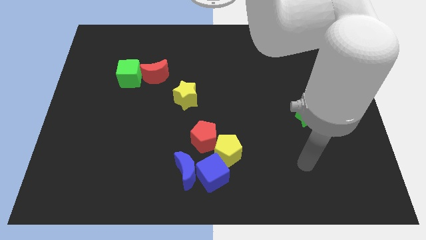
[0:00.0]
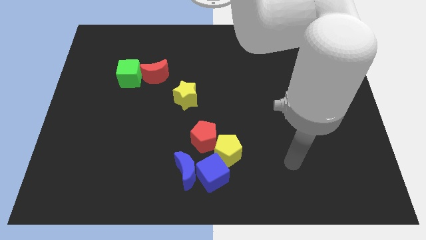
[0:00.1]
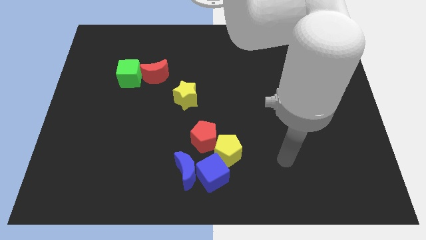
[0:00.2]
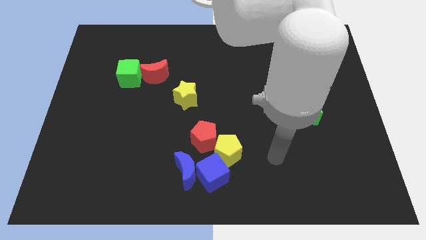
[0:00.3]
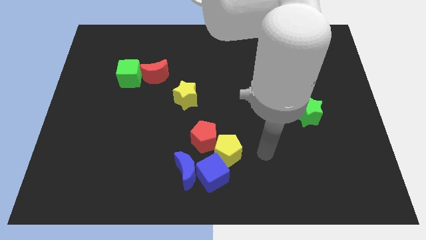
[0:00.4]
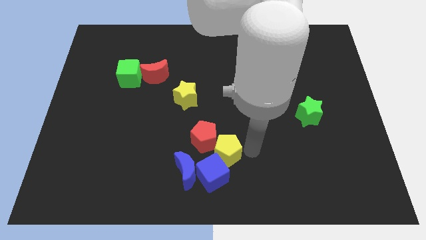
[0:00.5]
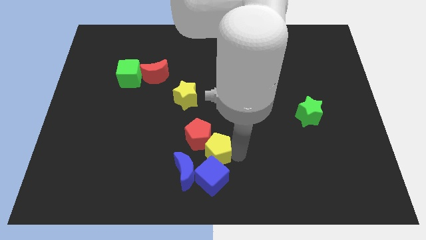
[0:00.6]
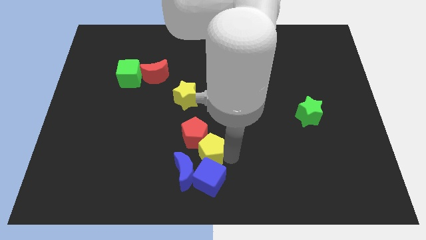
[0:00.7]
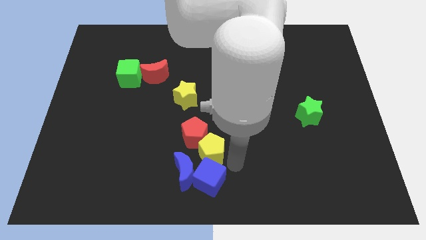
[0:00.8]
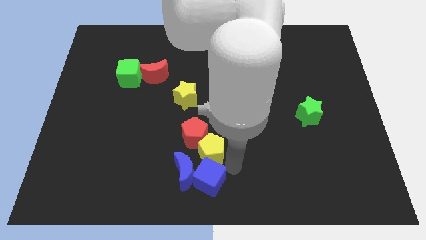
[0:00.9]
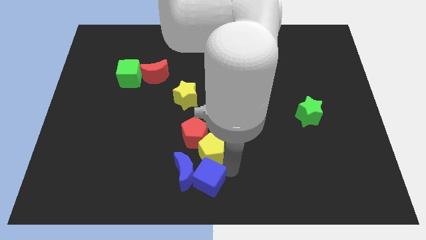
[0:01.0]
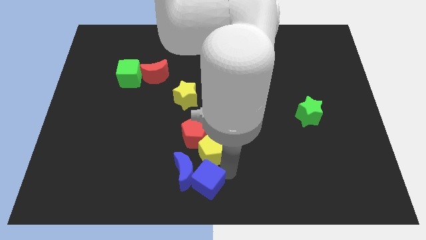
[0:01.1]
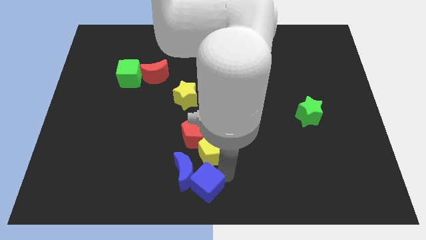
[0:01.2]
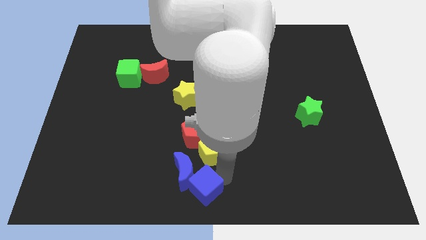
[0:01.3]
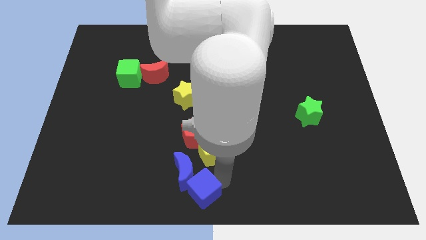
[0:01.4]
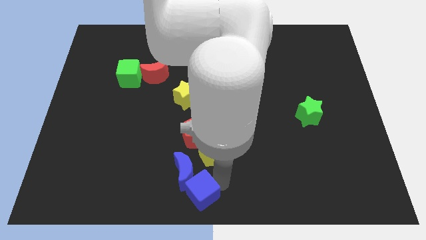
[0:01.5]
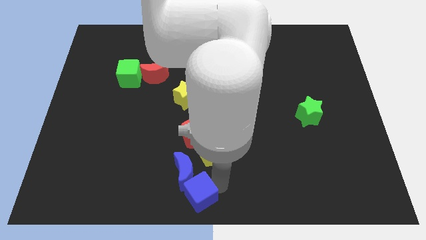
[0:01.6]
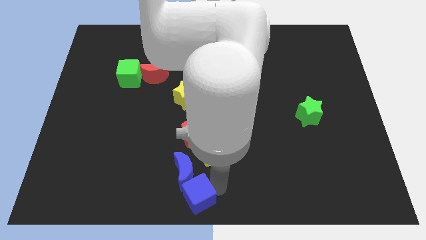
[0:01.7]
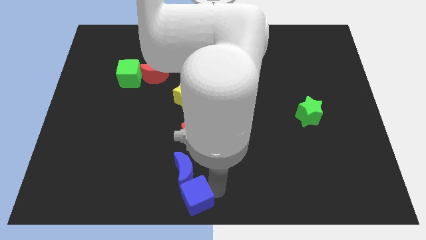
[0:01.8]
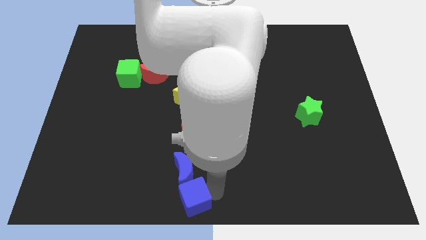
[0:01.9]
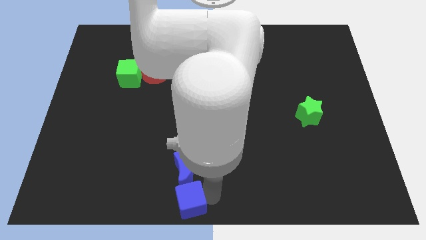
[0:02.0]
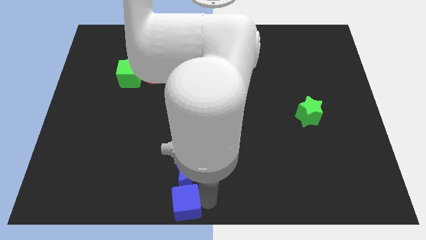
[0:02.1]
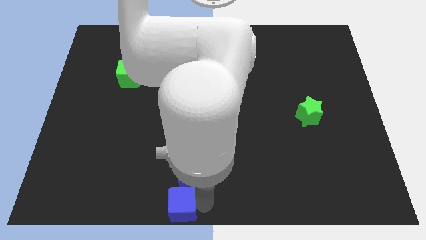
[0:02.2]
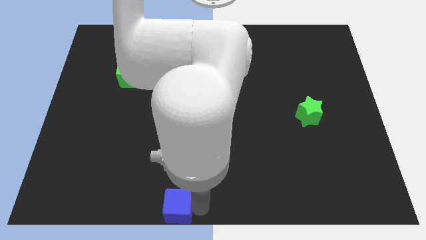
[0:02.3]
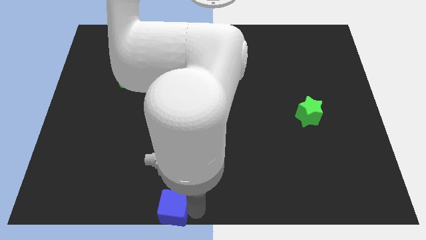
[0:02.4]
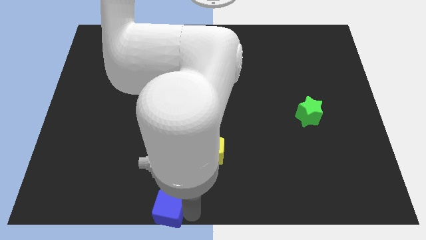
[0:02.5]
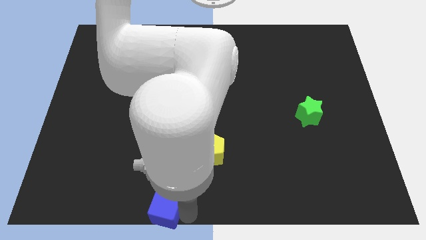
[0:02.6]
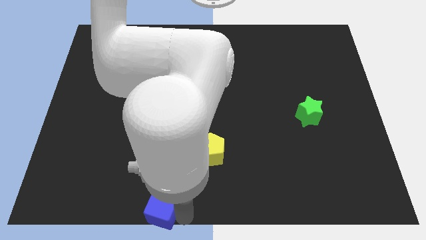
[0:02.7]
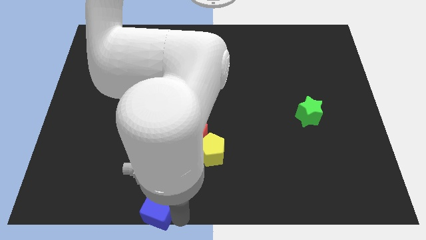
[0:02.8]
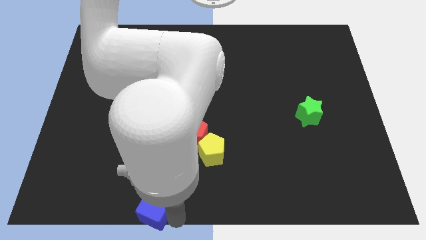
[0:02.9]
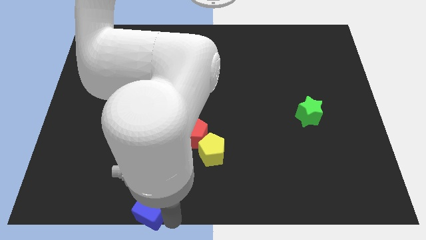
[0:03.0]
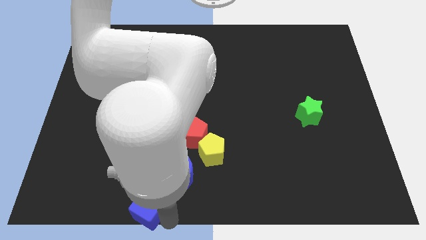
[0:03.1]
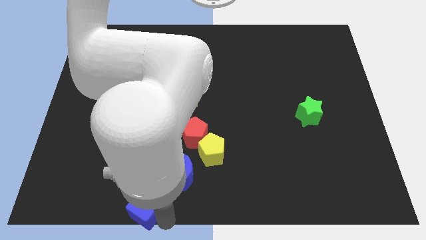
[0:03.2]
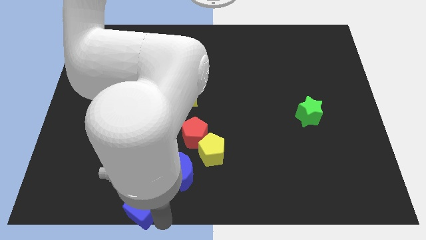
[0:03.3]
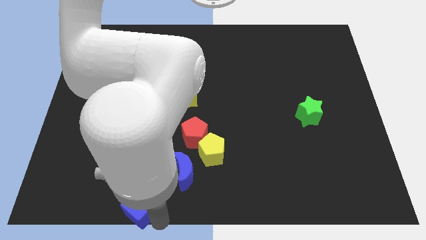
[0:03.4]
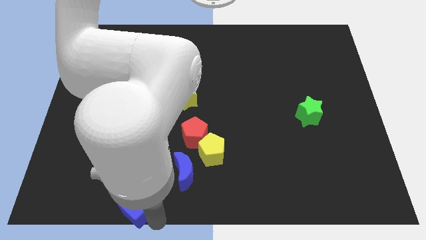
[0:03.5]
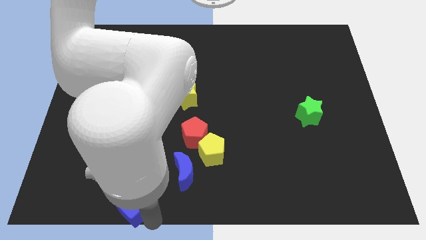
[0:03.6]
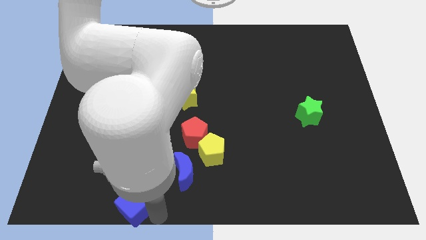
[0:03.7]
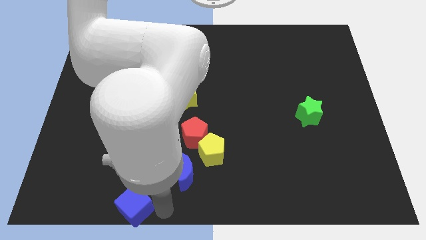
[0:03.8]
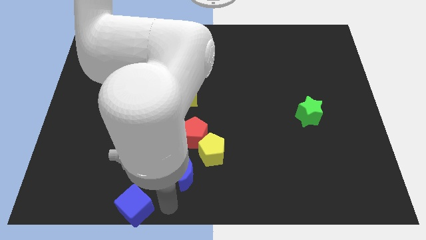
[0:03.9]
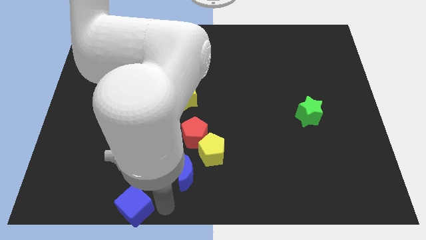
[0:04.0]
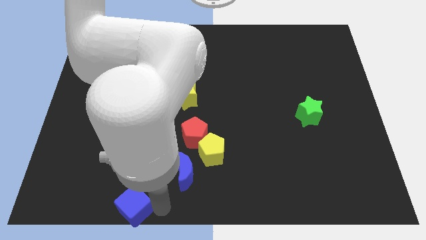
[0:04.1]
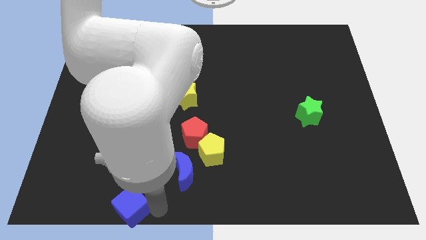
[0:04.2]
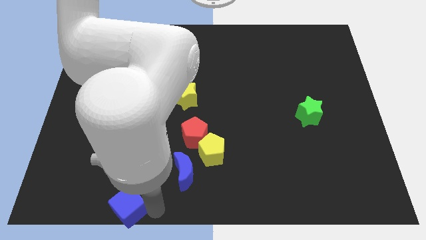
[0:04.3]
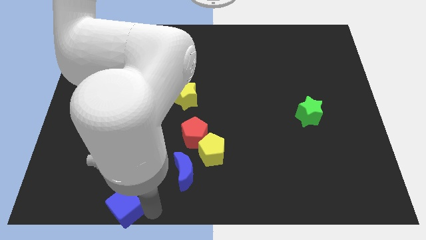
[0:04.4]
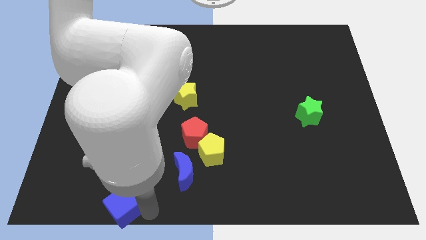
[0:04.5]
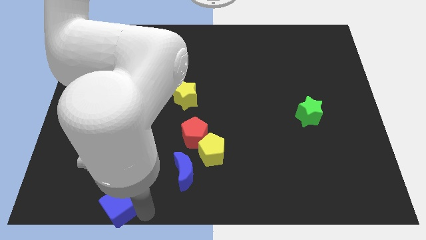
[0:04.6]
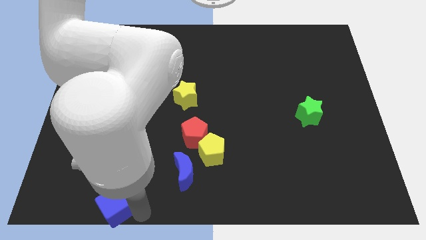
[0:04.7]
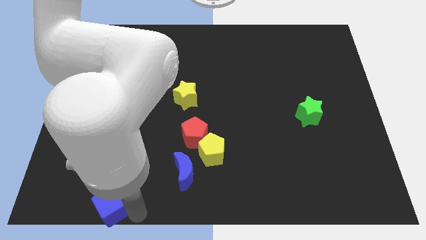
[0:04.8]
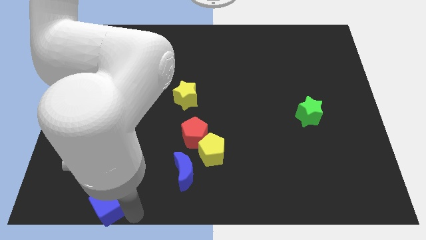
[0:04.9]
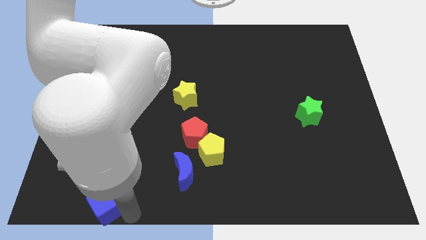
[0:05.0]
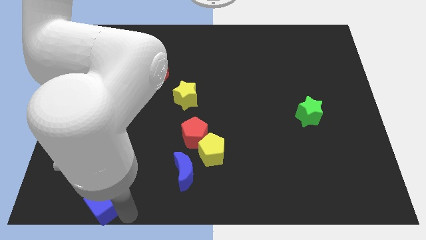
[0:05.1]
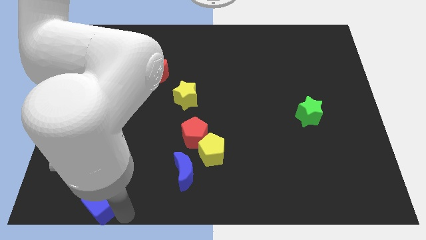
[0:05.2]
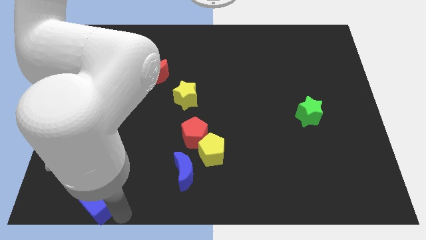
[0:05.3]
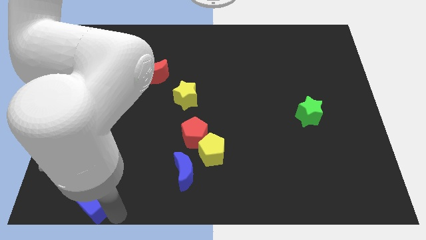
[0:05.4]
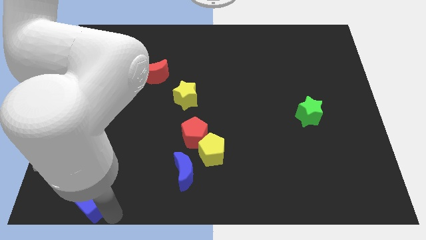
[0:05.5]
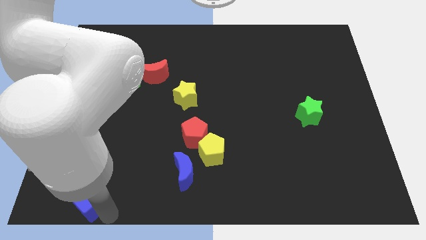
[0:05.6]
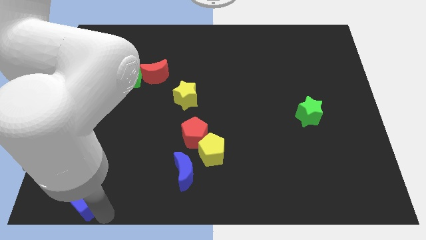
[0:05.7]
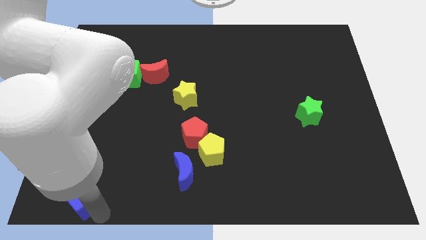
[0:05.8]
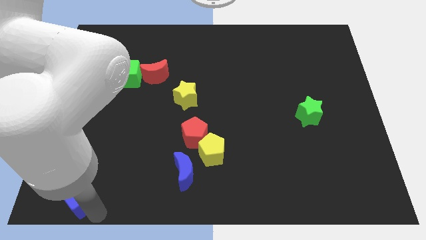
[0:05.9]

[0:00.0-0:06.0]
push the blue cube to the bottom left corner

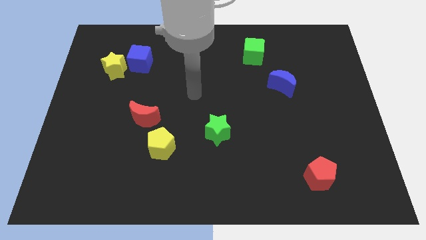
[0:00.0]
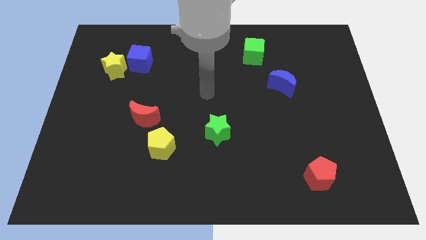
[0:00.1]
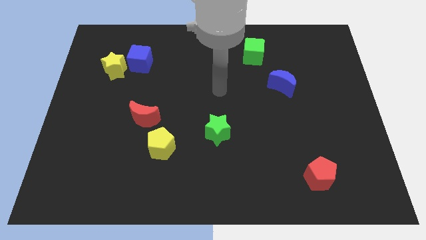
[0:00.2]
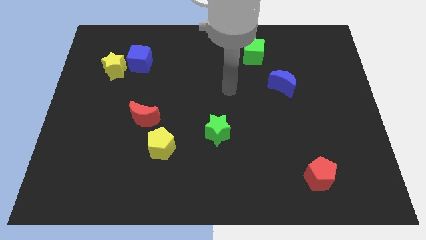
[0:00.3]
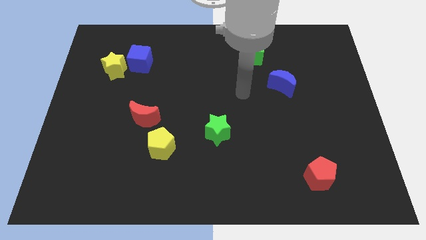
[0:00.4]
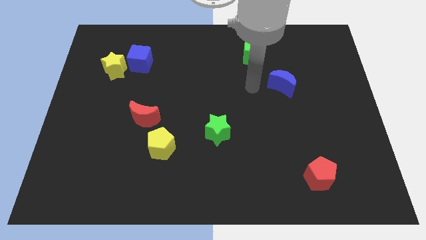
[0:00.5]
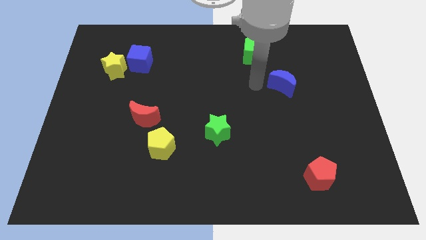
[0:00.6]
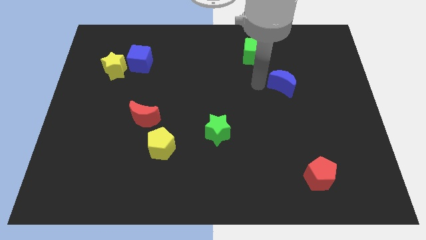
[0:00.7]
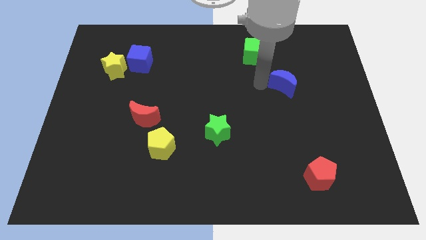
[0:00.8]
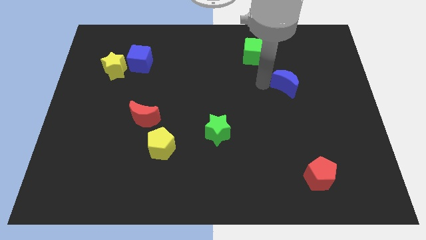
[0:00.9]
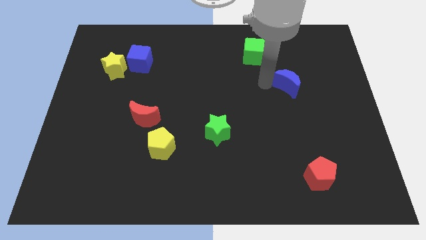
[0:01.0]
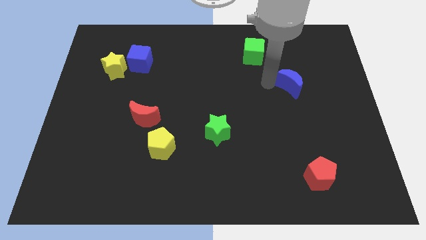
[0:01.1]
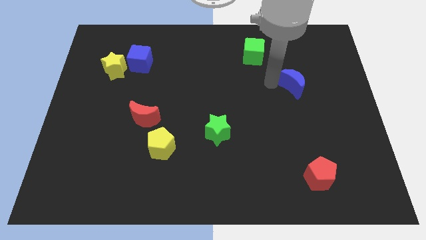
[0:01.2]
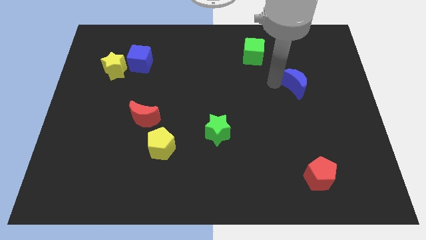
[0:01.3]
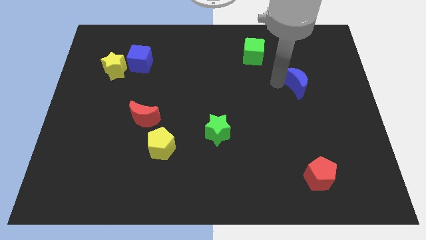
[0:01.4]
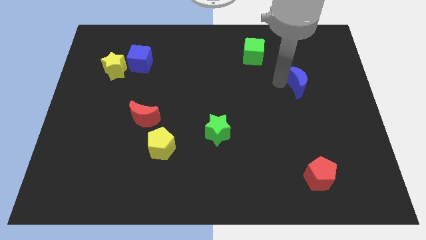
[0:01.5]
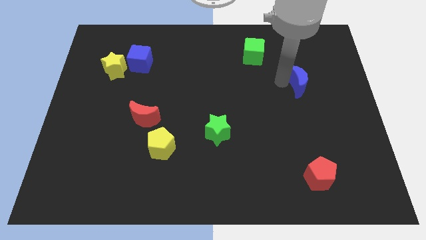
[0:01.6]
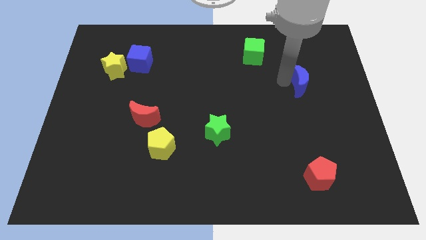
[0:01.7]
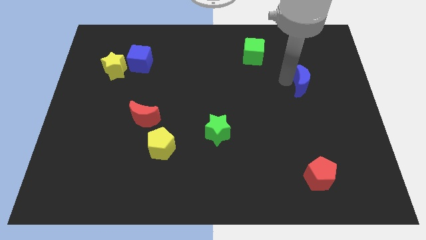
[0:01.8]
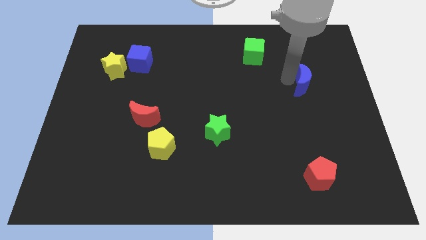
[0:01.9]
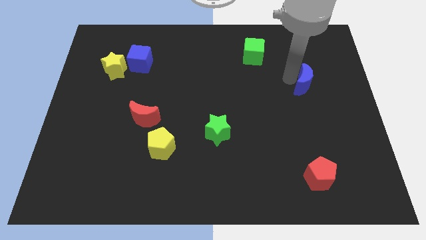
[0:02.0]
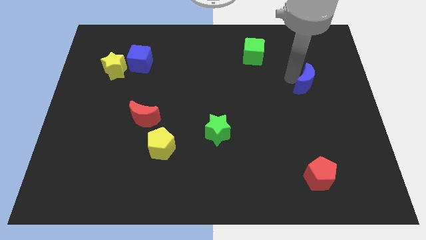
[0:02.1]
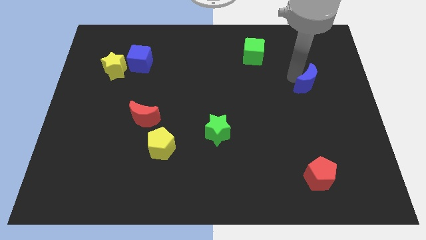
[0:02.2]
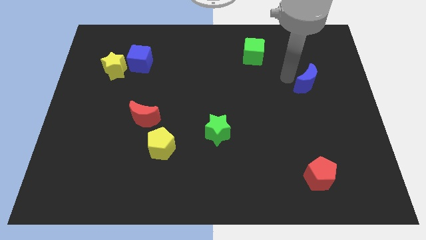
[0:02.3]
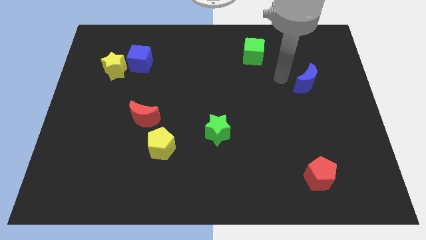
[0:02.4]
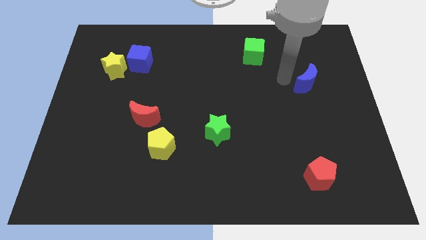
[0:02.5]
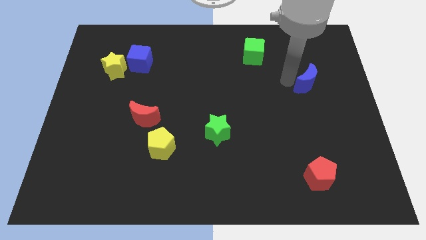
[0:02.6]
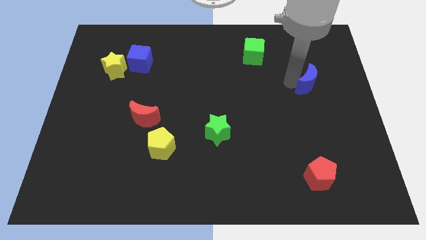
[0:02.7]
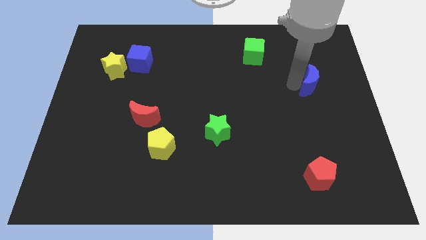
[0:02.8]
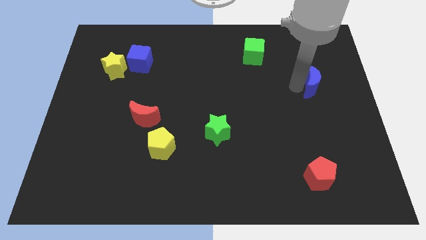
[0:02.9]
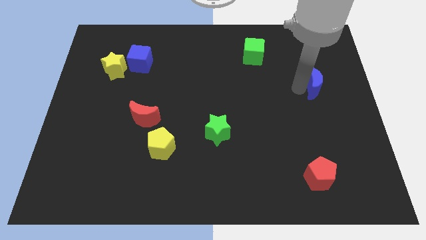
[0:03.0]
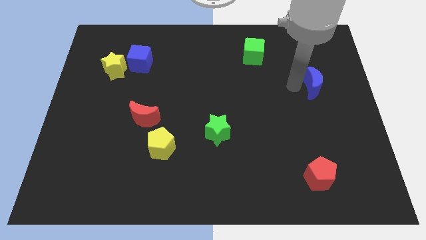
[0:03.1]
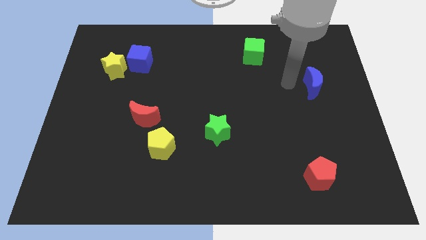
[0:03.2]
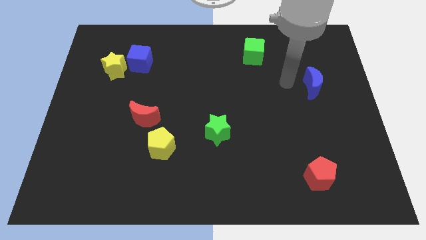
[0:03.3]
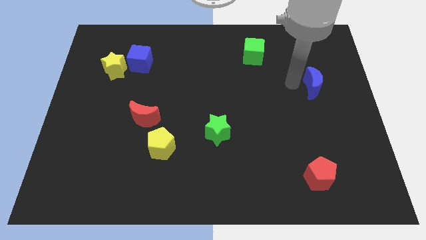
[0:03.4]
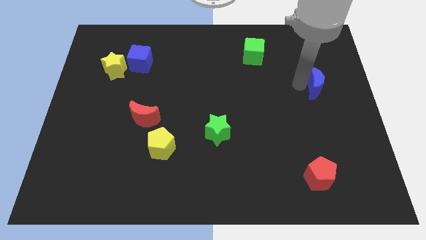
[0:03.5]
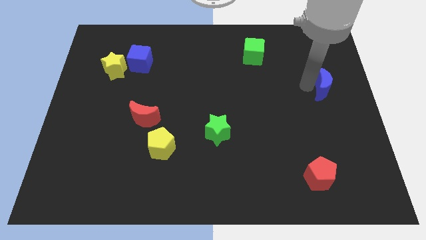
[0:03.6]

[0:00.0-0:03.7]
move the blue moon to the right side
